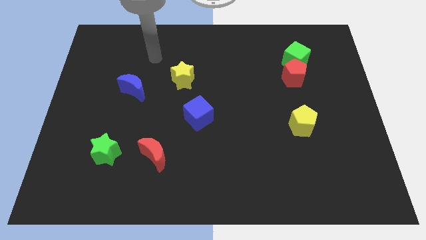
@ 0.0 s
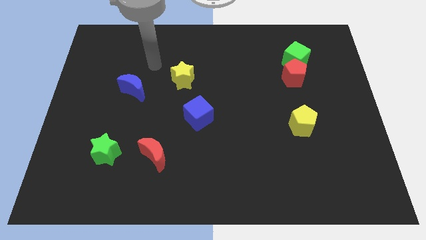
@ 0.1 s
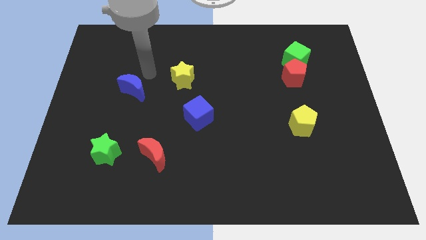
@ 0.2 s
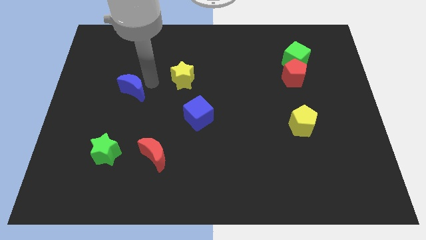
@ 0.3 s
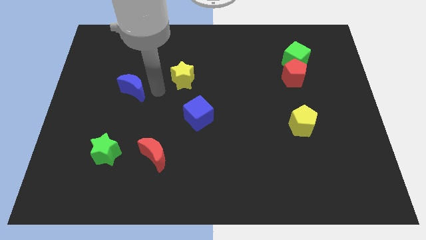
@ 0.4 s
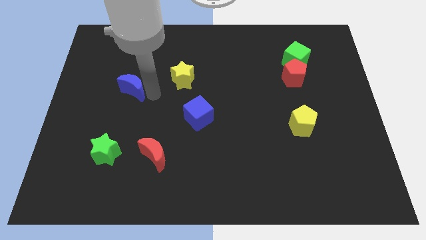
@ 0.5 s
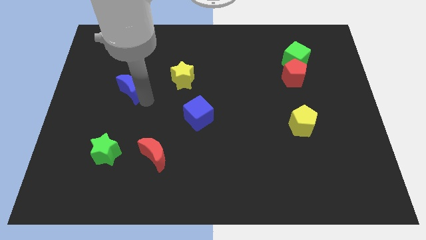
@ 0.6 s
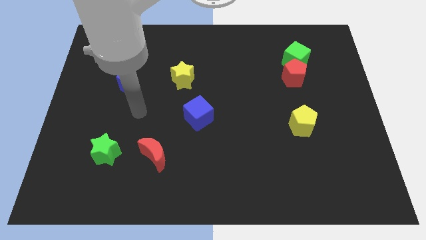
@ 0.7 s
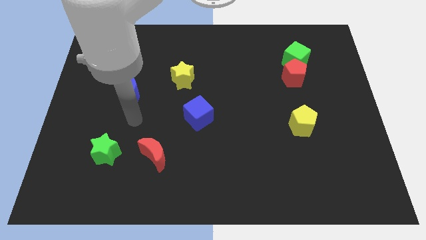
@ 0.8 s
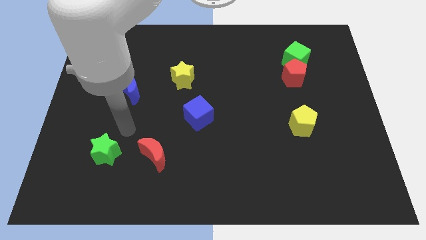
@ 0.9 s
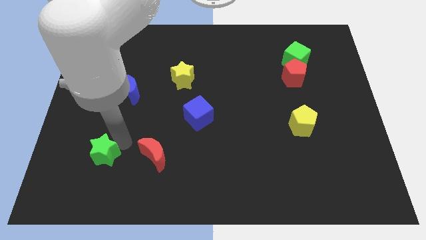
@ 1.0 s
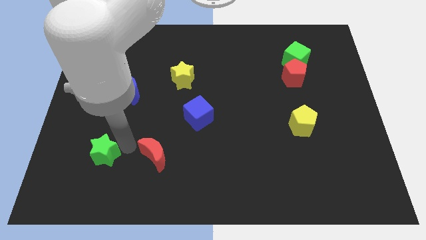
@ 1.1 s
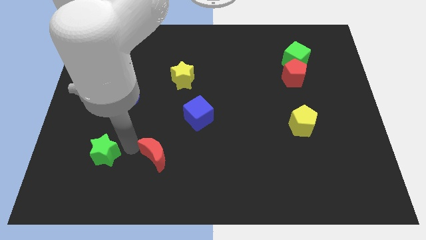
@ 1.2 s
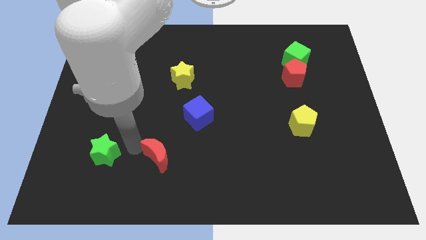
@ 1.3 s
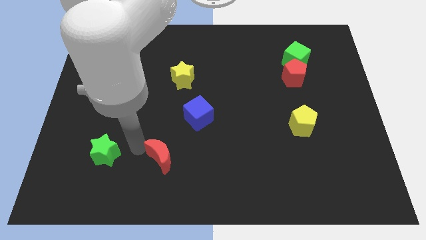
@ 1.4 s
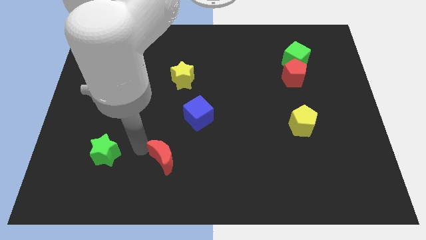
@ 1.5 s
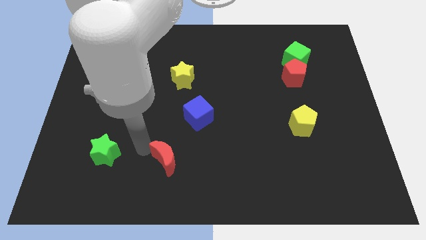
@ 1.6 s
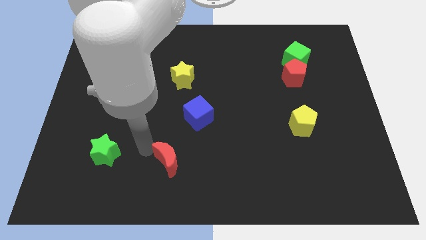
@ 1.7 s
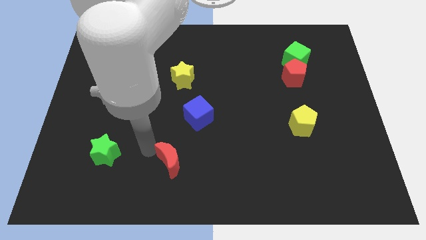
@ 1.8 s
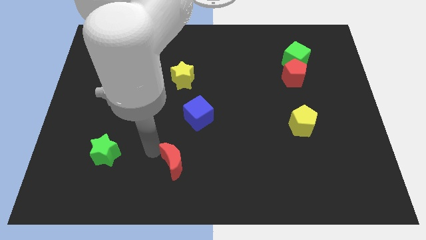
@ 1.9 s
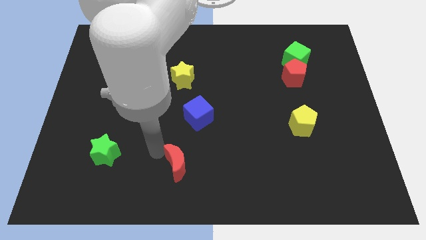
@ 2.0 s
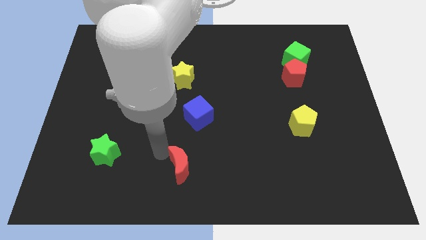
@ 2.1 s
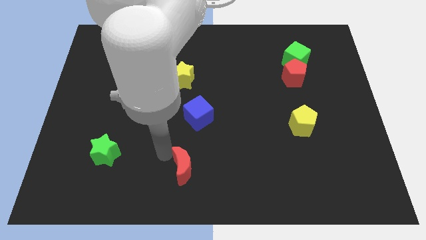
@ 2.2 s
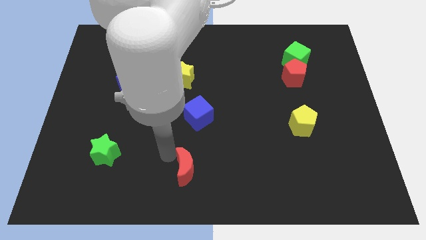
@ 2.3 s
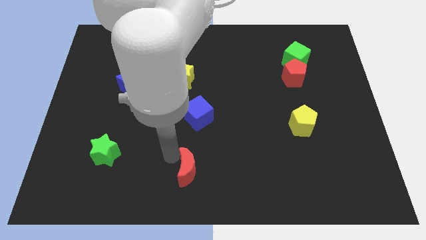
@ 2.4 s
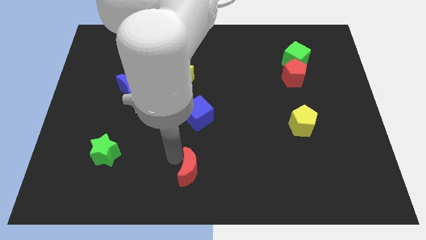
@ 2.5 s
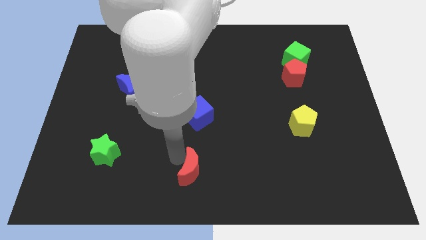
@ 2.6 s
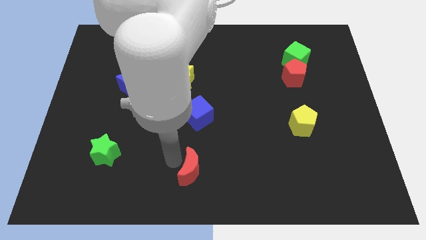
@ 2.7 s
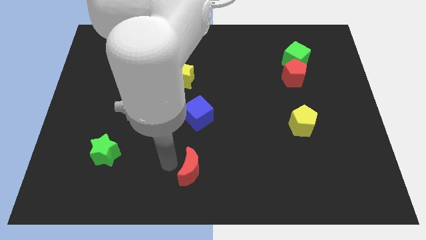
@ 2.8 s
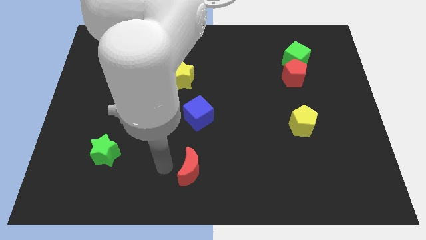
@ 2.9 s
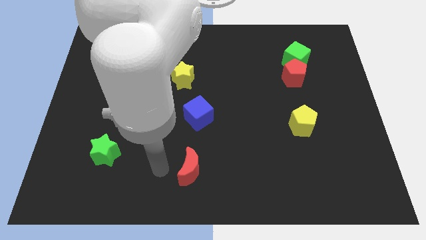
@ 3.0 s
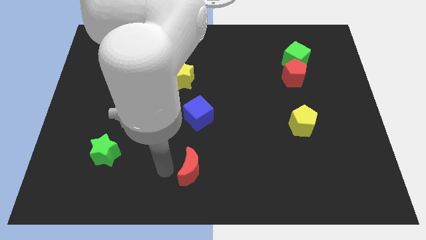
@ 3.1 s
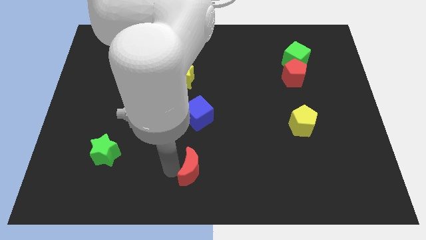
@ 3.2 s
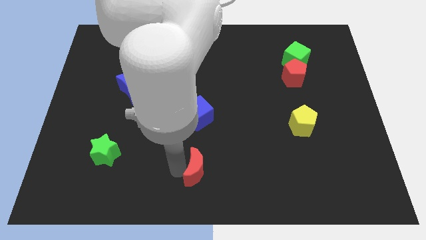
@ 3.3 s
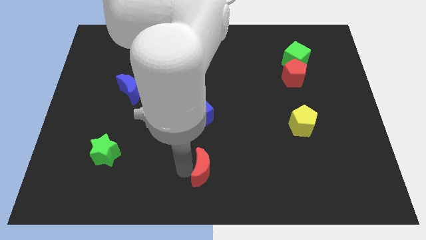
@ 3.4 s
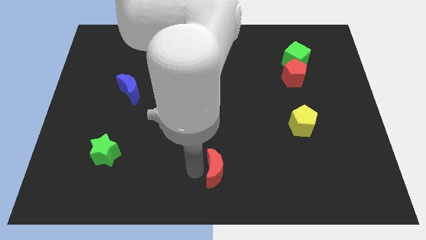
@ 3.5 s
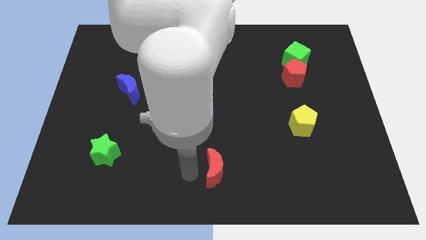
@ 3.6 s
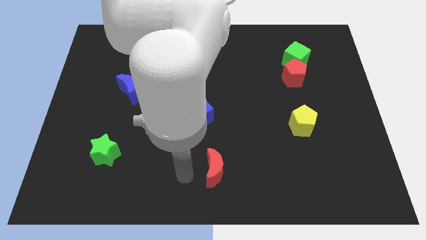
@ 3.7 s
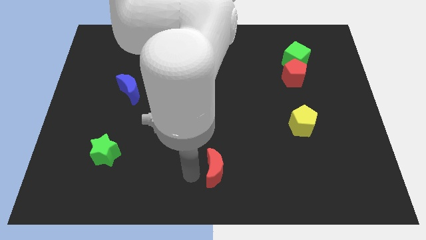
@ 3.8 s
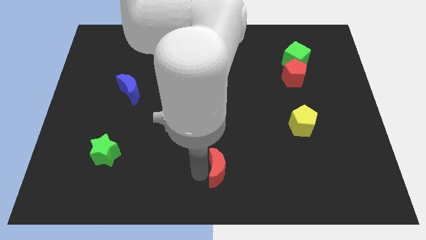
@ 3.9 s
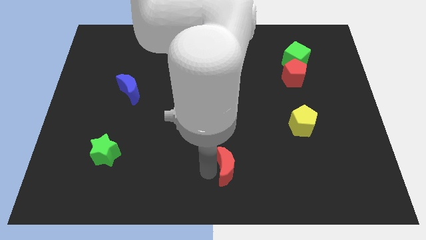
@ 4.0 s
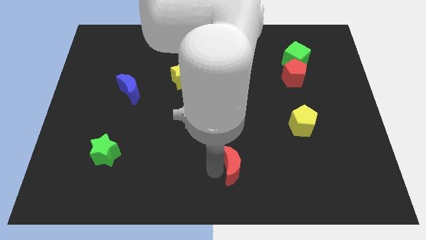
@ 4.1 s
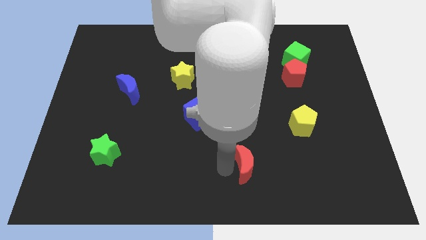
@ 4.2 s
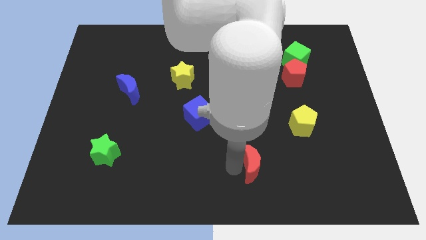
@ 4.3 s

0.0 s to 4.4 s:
move the red moon right

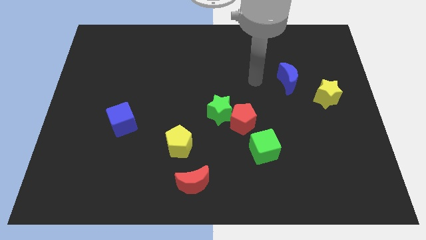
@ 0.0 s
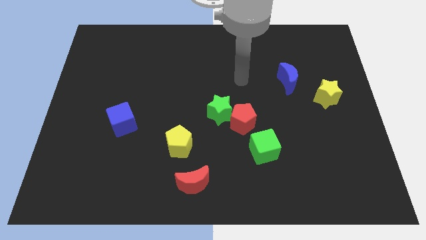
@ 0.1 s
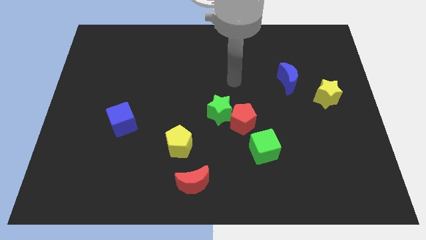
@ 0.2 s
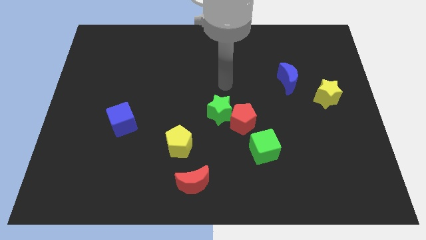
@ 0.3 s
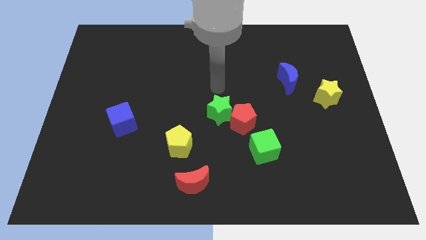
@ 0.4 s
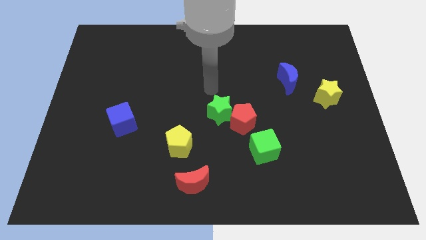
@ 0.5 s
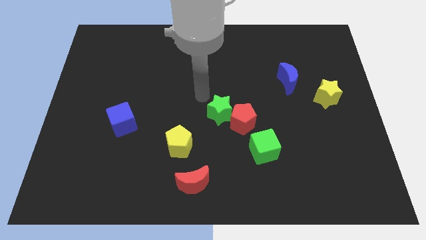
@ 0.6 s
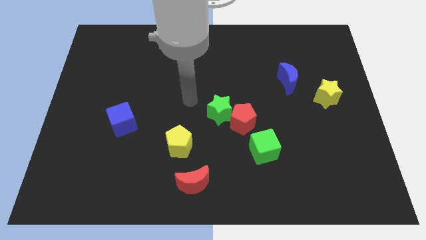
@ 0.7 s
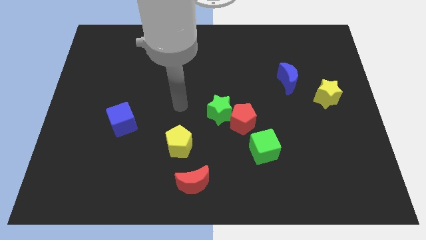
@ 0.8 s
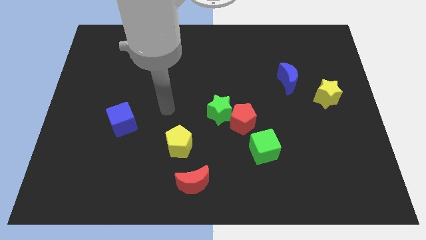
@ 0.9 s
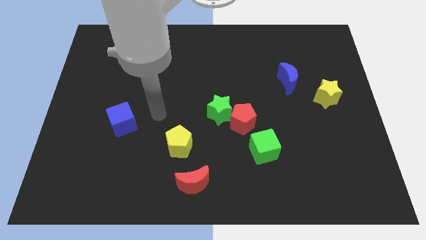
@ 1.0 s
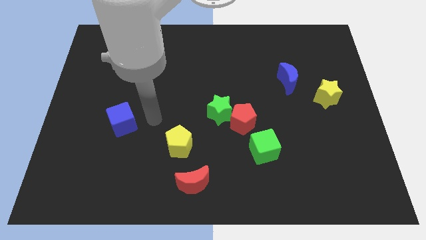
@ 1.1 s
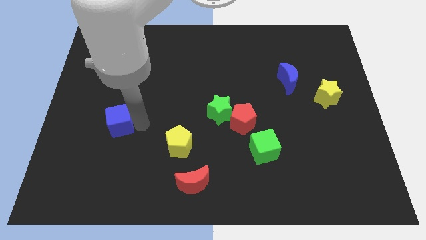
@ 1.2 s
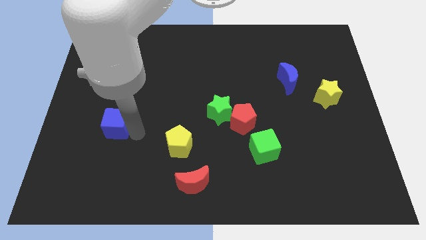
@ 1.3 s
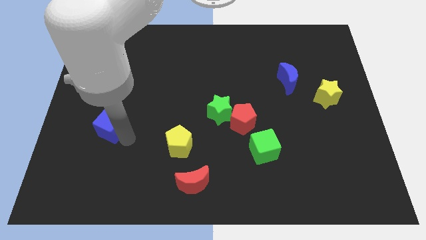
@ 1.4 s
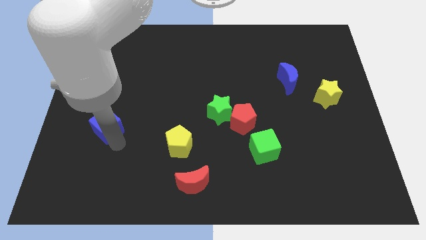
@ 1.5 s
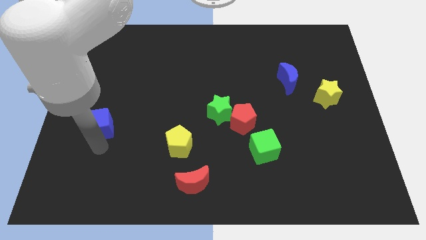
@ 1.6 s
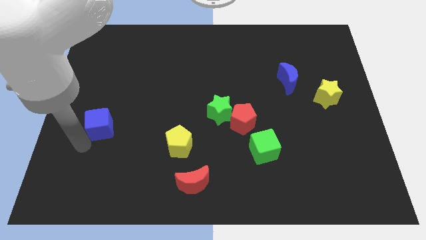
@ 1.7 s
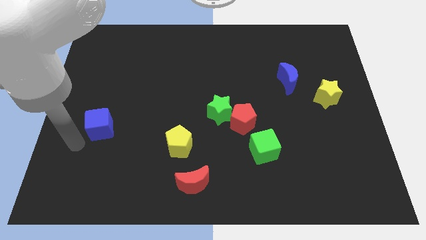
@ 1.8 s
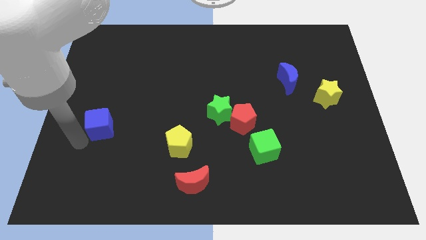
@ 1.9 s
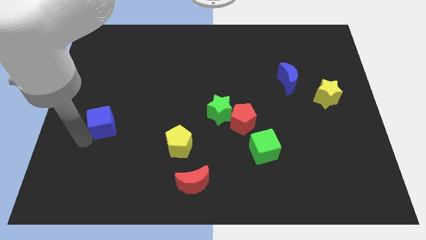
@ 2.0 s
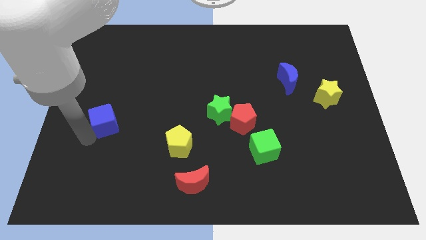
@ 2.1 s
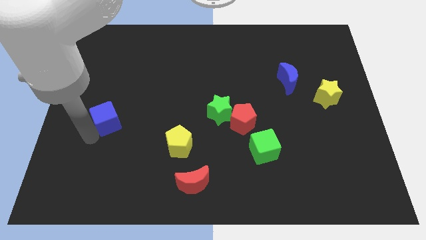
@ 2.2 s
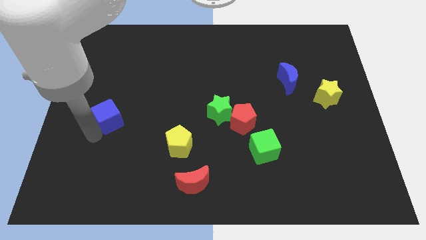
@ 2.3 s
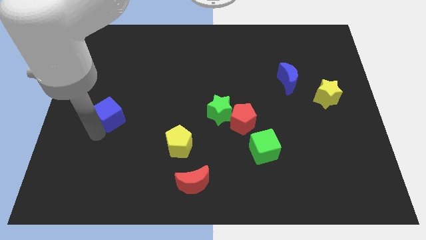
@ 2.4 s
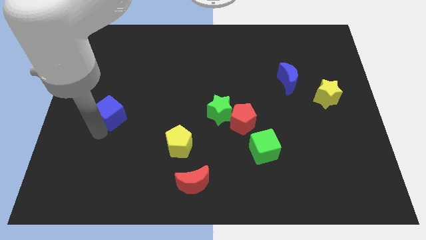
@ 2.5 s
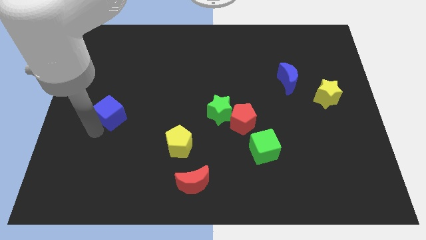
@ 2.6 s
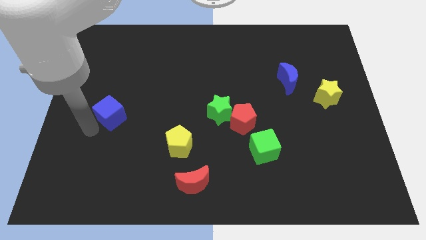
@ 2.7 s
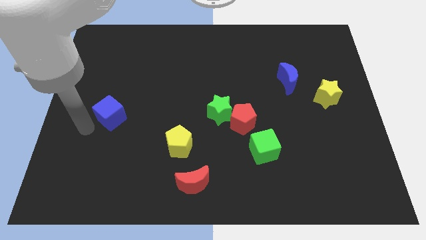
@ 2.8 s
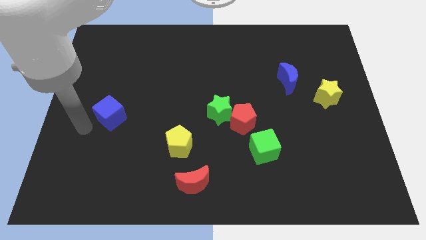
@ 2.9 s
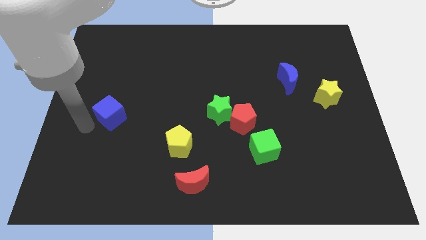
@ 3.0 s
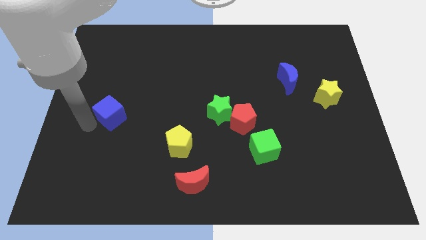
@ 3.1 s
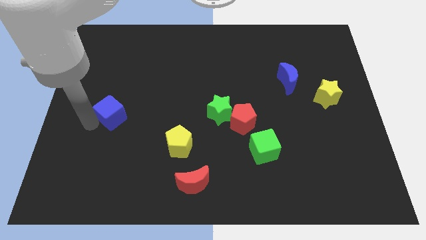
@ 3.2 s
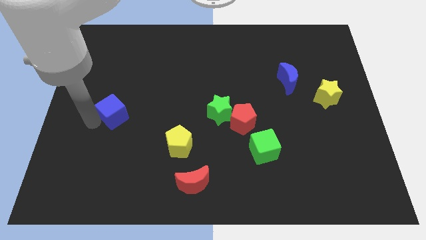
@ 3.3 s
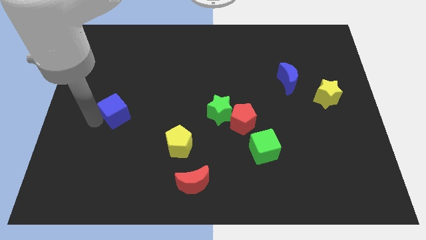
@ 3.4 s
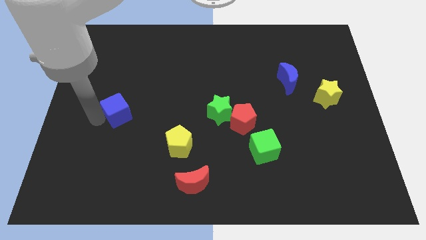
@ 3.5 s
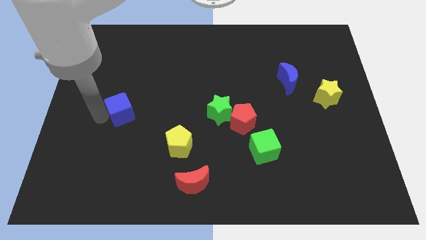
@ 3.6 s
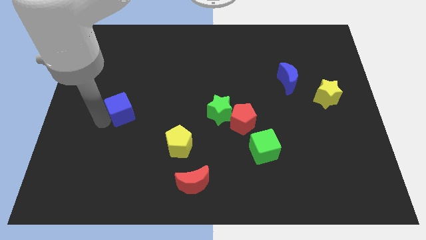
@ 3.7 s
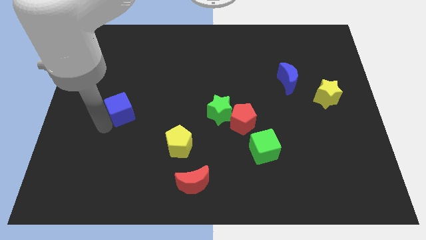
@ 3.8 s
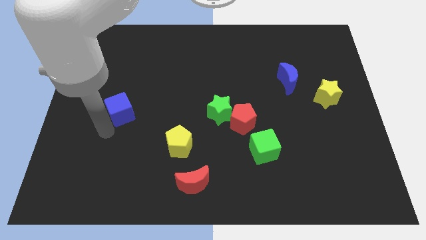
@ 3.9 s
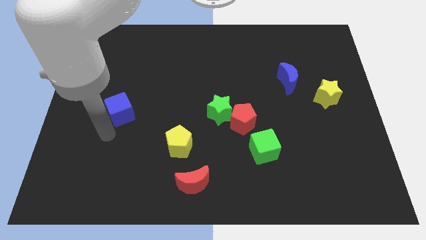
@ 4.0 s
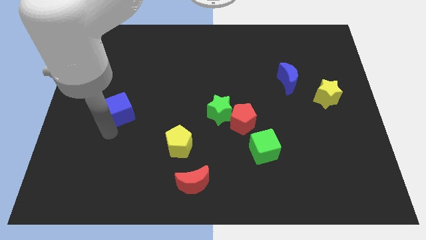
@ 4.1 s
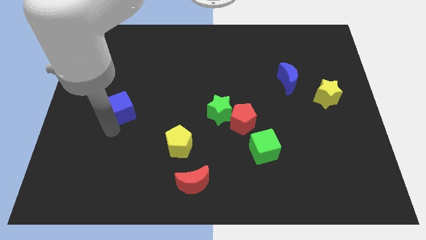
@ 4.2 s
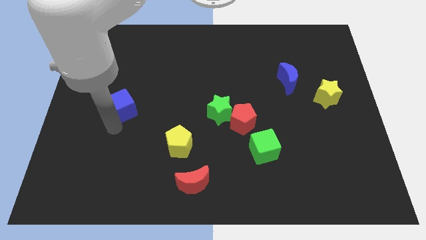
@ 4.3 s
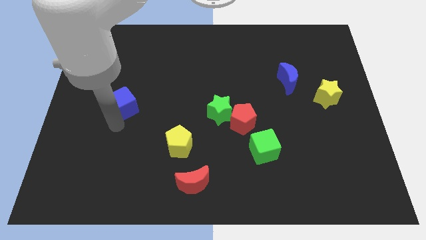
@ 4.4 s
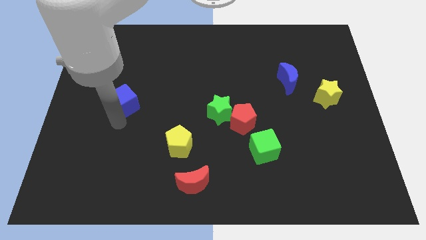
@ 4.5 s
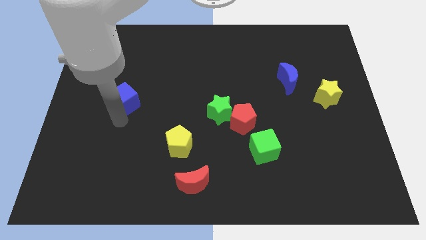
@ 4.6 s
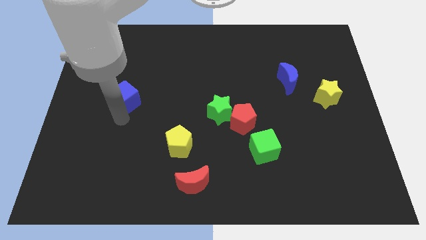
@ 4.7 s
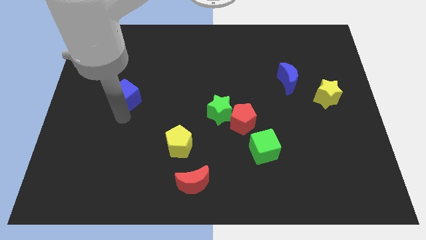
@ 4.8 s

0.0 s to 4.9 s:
move the blue cube up a little bit
